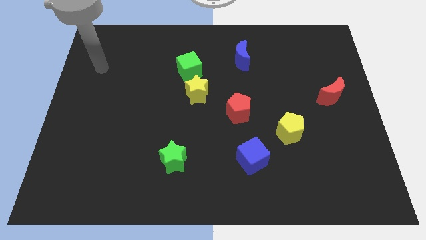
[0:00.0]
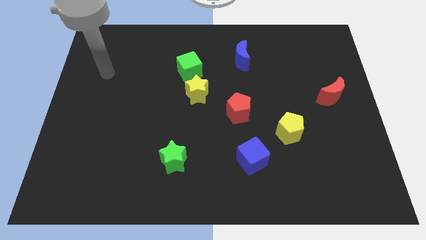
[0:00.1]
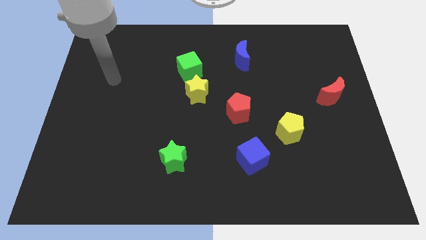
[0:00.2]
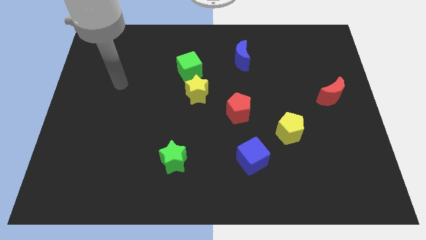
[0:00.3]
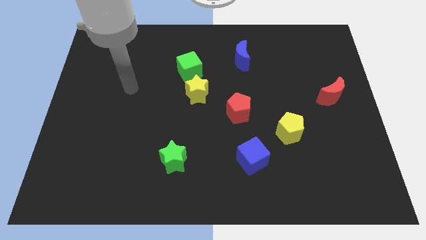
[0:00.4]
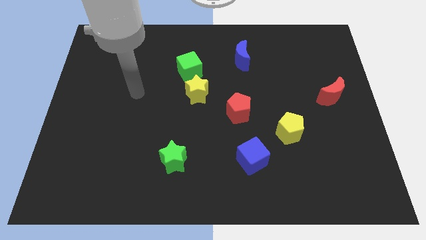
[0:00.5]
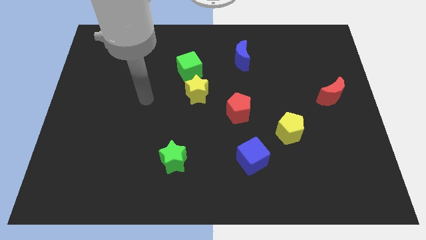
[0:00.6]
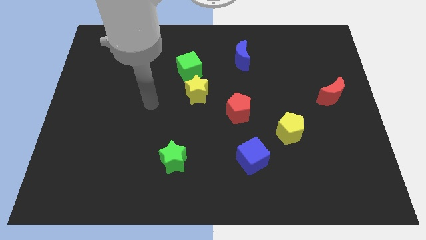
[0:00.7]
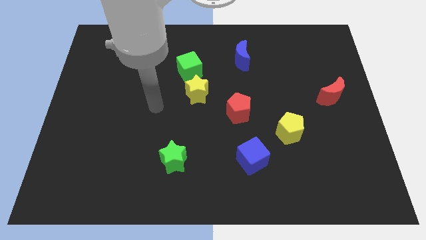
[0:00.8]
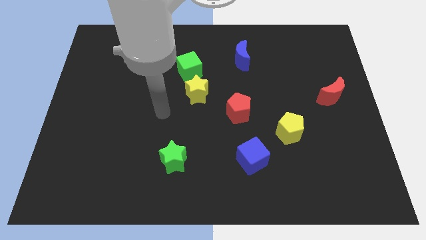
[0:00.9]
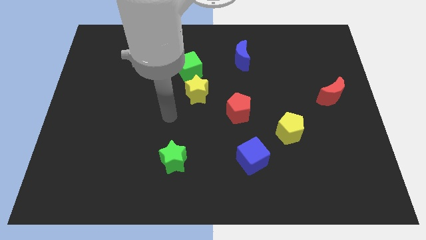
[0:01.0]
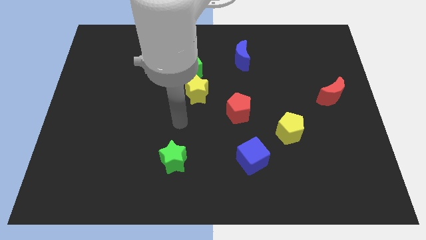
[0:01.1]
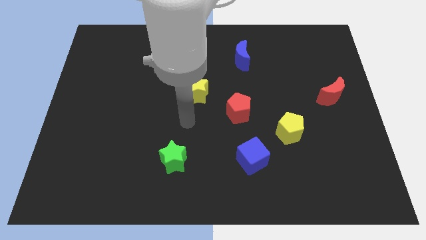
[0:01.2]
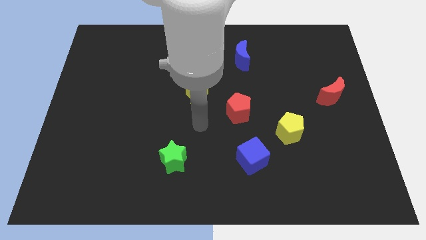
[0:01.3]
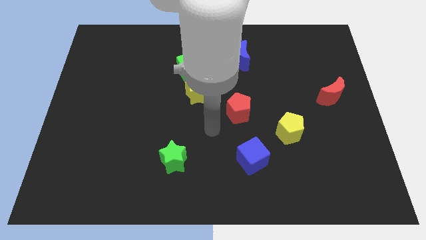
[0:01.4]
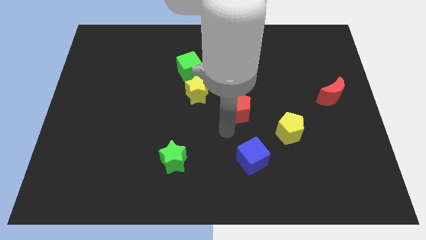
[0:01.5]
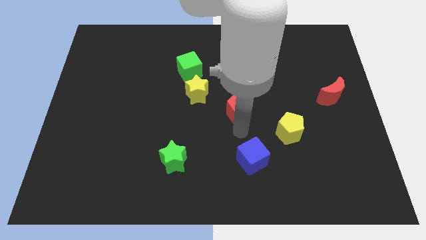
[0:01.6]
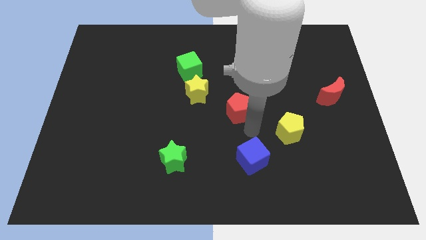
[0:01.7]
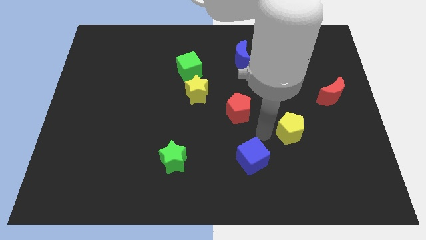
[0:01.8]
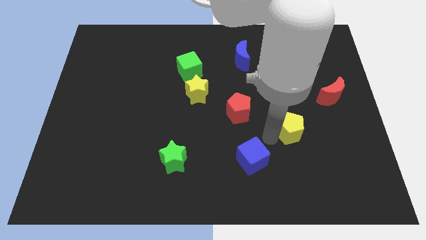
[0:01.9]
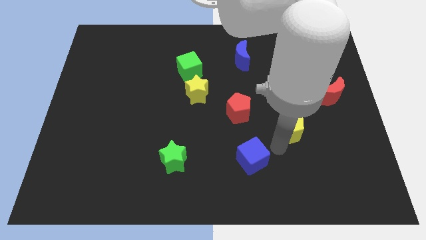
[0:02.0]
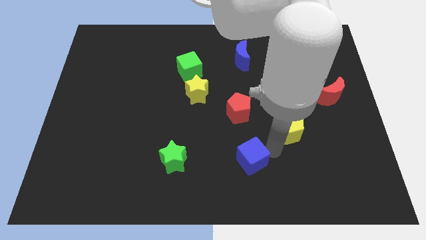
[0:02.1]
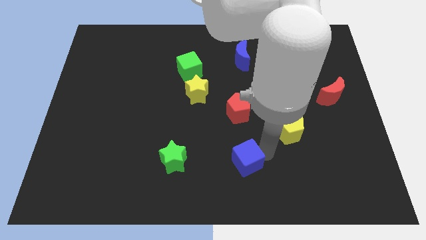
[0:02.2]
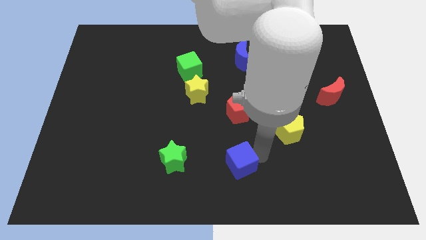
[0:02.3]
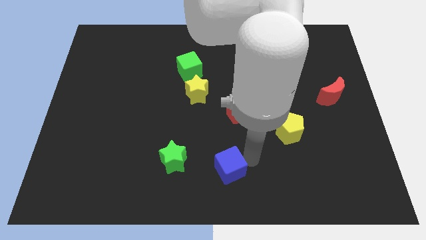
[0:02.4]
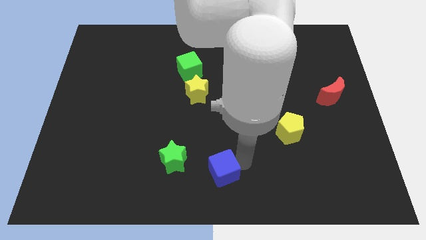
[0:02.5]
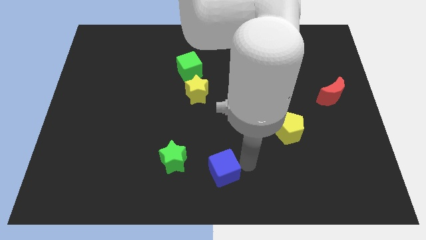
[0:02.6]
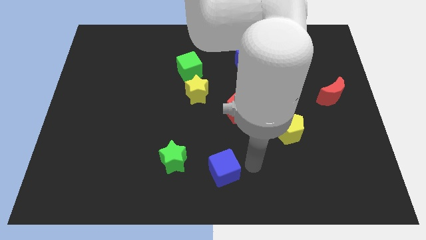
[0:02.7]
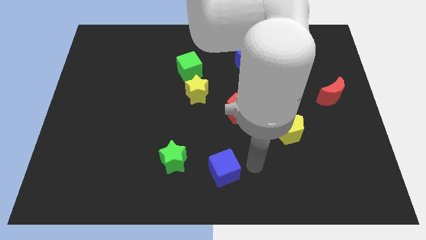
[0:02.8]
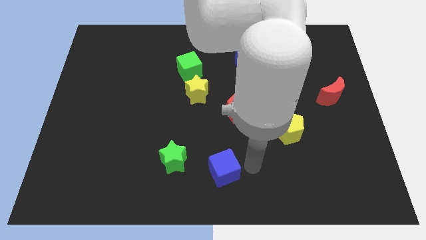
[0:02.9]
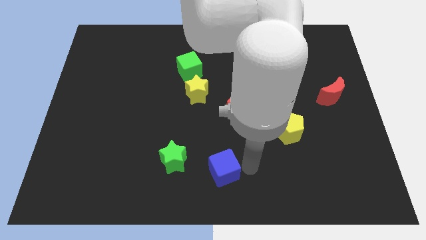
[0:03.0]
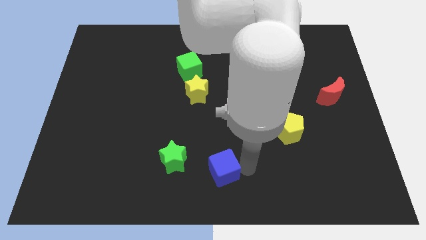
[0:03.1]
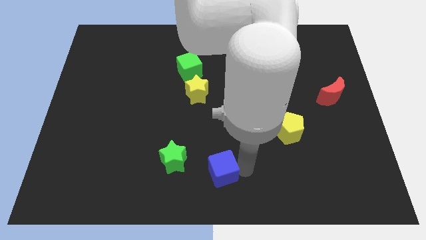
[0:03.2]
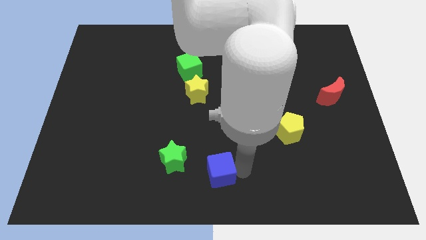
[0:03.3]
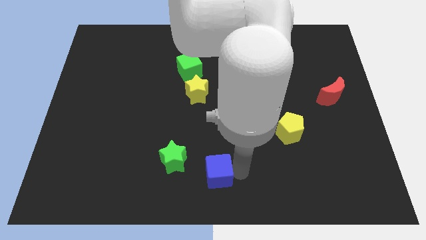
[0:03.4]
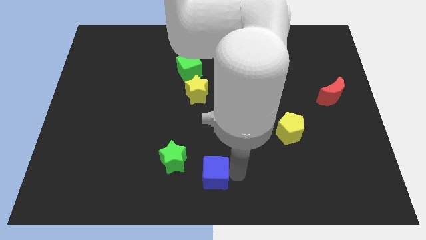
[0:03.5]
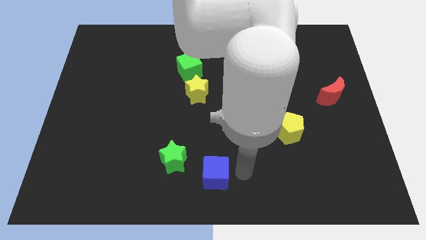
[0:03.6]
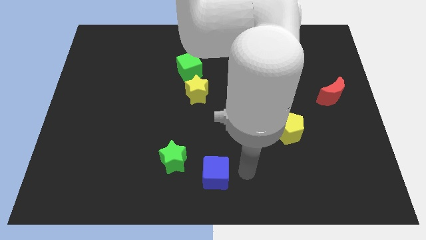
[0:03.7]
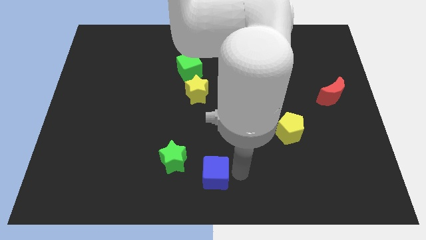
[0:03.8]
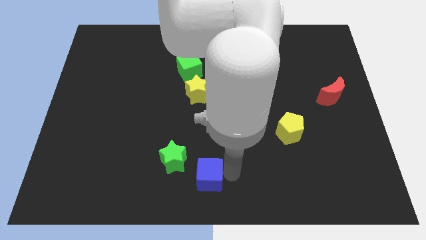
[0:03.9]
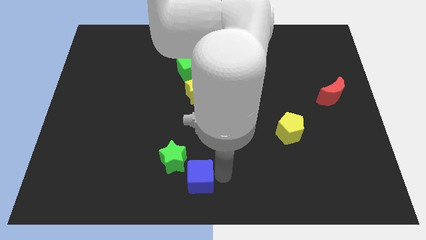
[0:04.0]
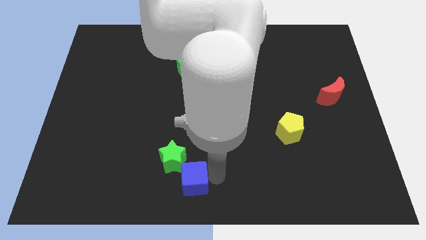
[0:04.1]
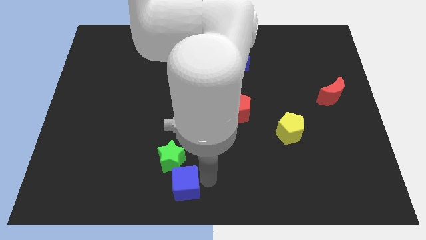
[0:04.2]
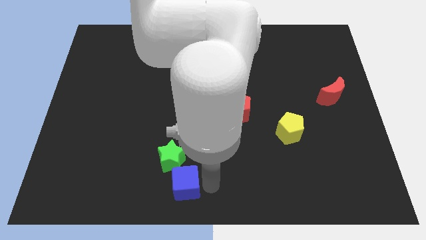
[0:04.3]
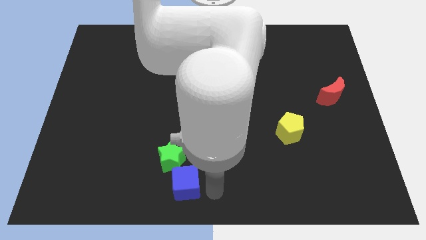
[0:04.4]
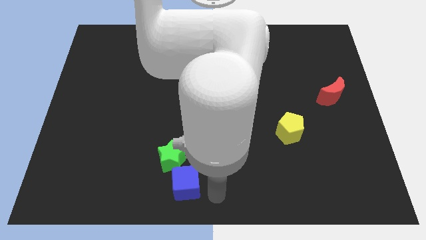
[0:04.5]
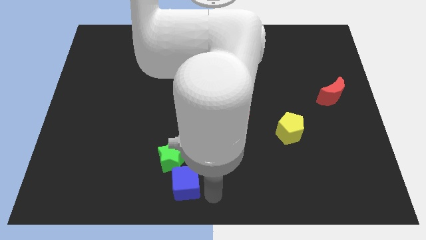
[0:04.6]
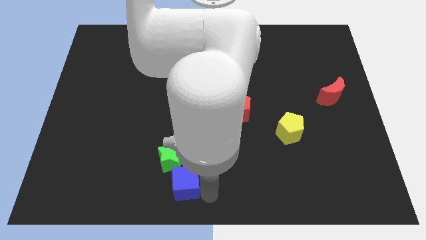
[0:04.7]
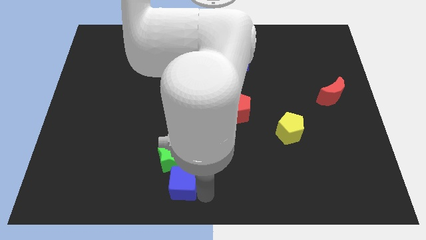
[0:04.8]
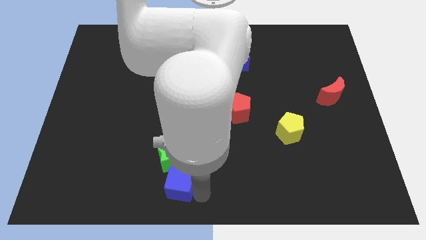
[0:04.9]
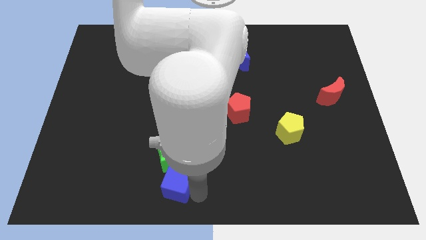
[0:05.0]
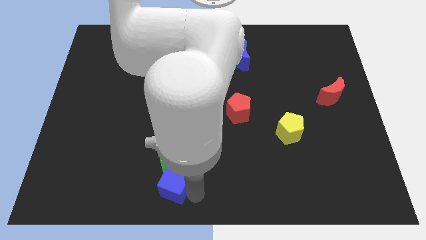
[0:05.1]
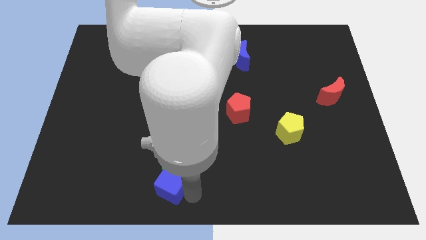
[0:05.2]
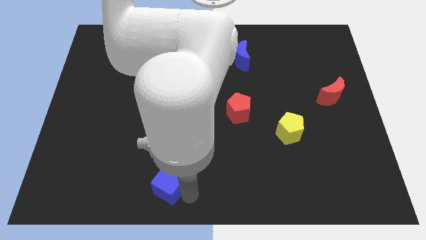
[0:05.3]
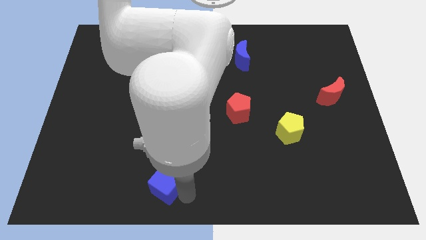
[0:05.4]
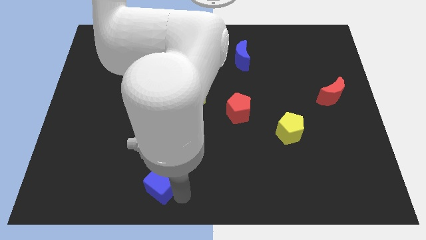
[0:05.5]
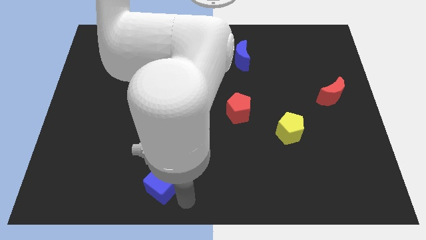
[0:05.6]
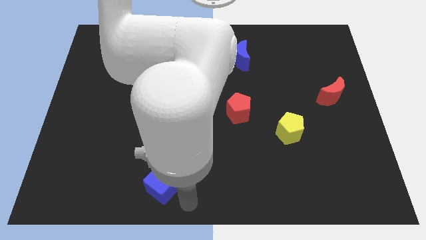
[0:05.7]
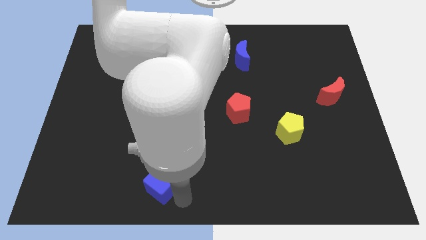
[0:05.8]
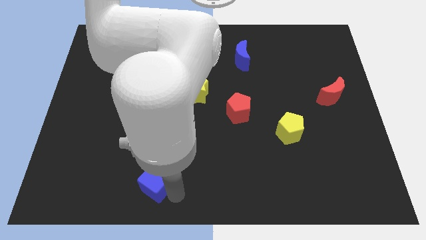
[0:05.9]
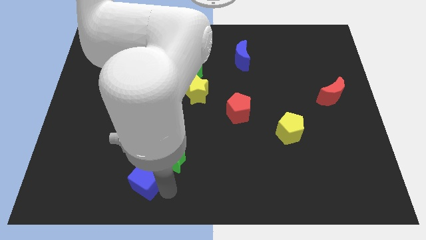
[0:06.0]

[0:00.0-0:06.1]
slide the blue cube to the left

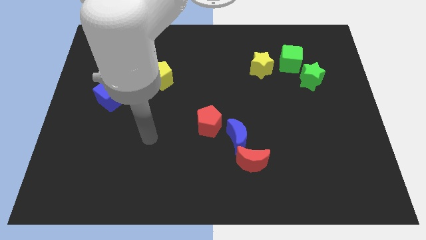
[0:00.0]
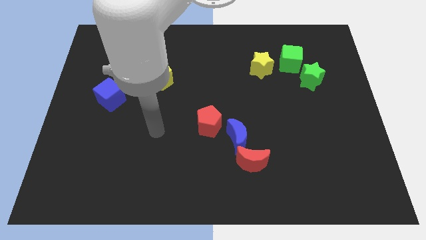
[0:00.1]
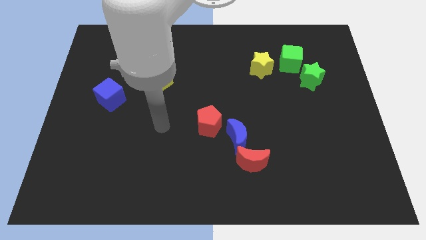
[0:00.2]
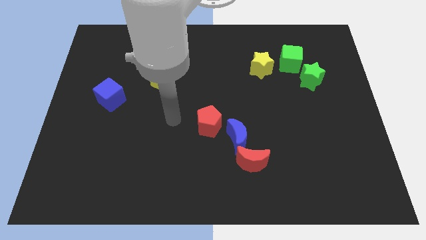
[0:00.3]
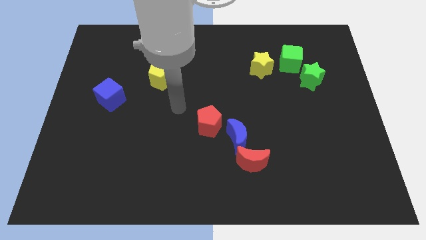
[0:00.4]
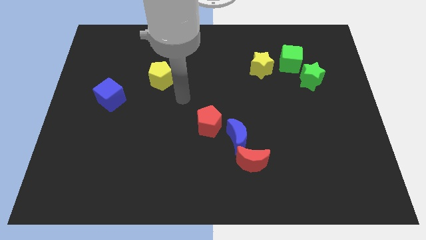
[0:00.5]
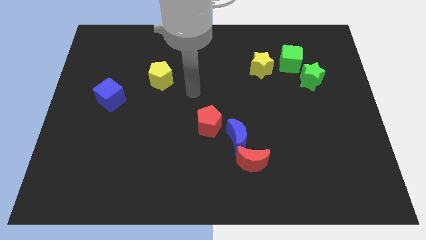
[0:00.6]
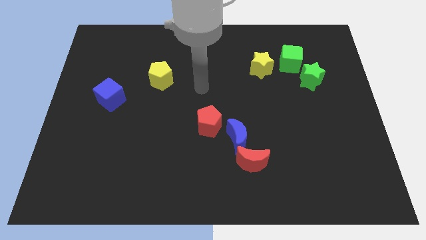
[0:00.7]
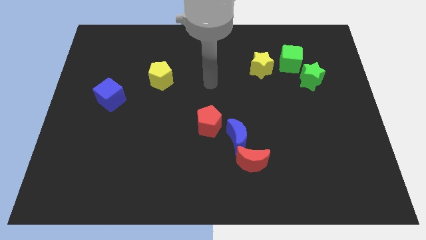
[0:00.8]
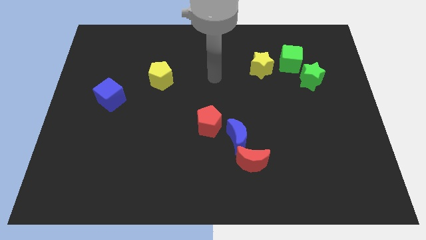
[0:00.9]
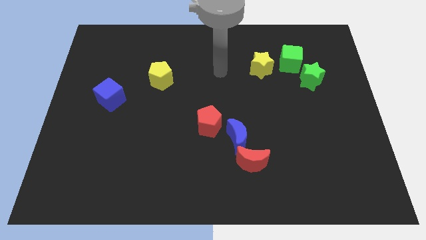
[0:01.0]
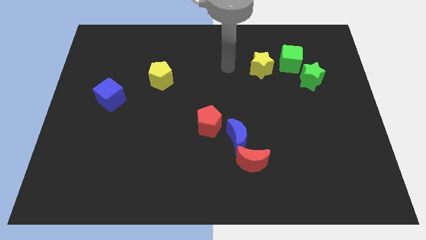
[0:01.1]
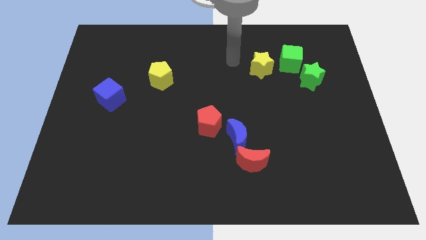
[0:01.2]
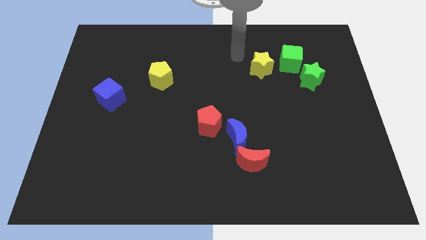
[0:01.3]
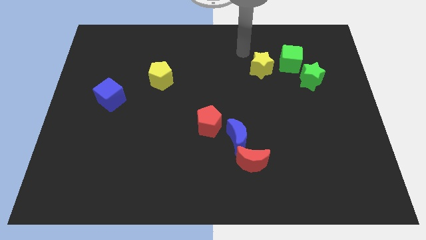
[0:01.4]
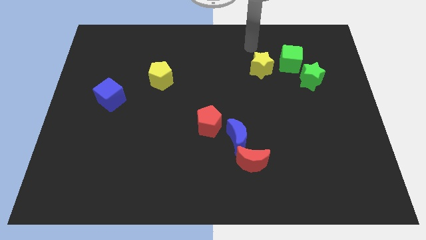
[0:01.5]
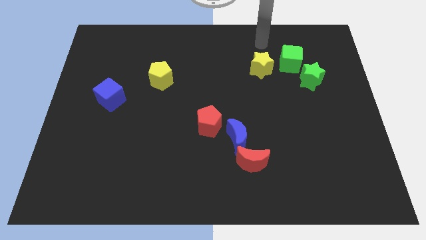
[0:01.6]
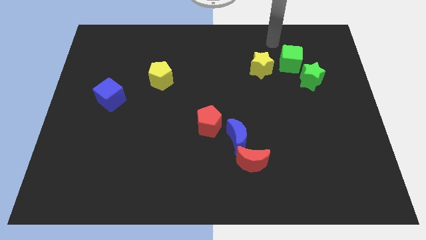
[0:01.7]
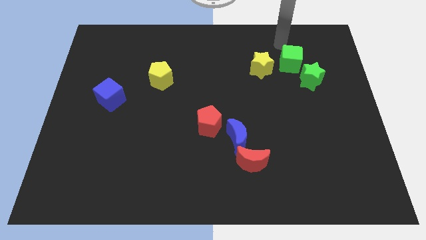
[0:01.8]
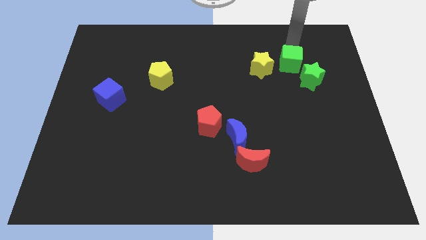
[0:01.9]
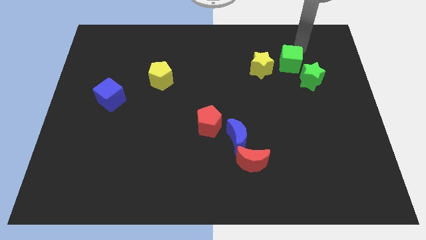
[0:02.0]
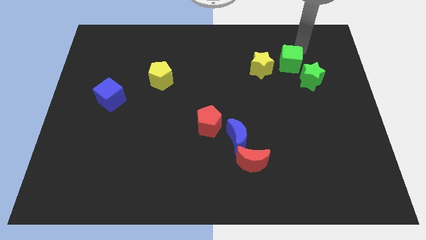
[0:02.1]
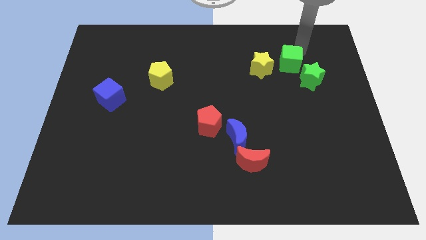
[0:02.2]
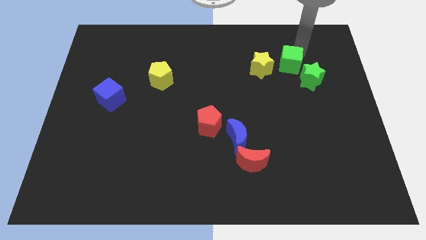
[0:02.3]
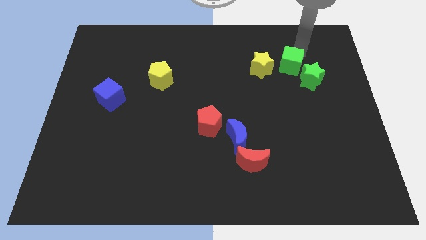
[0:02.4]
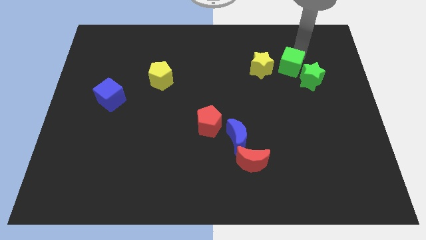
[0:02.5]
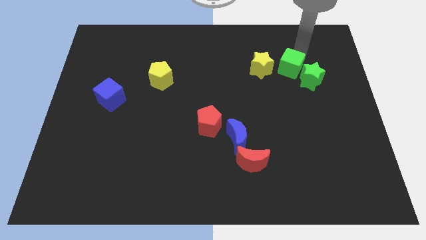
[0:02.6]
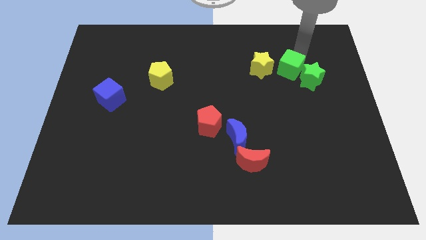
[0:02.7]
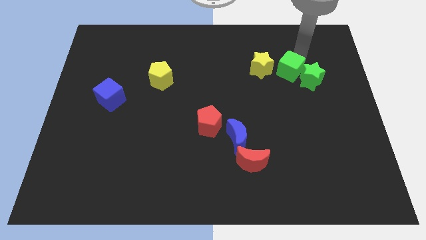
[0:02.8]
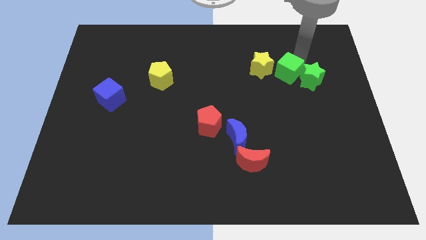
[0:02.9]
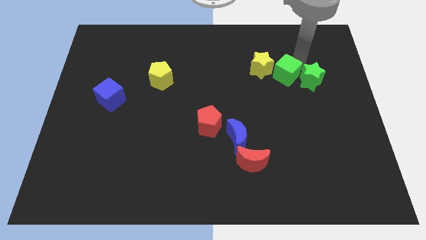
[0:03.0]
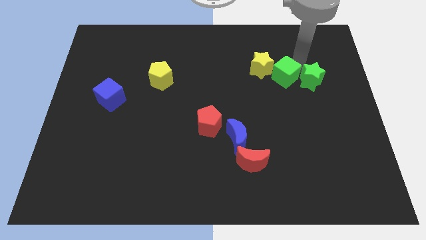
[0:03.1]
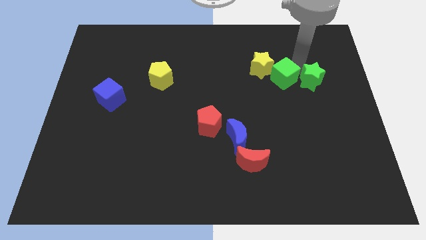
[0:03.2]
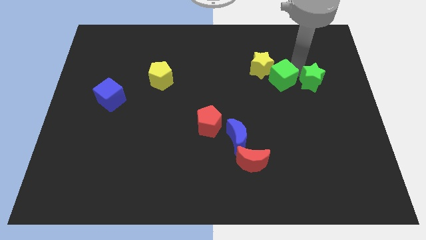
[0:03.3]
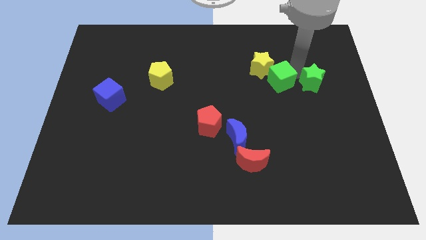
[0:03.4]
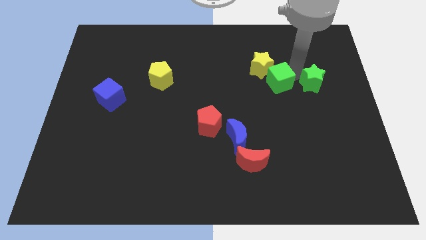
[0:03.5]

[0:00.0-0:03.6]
slightly push the green cube diagonally downwards and left
